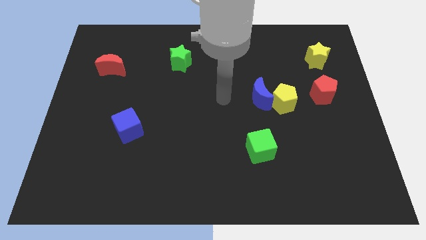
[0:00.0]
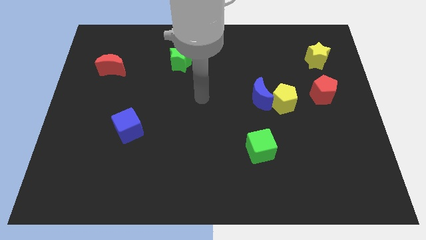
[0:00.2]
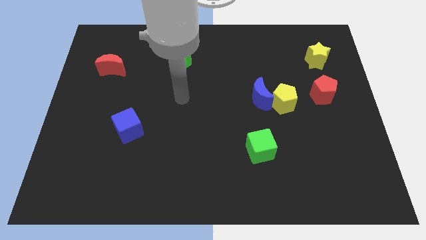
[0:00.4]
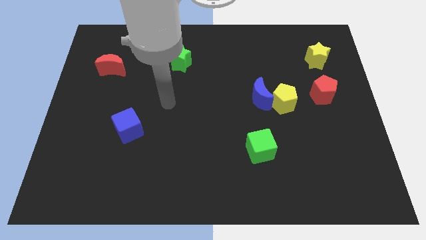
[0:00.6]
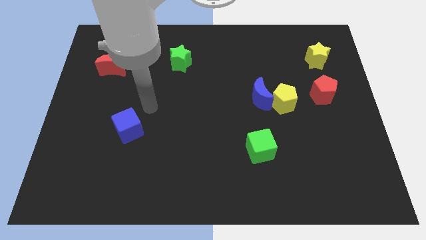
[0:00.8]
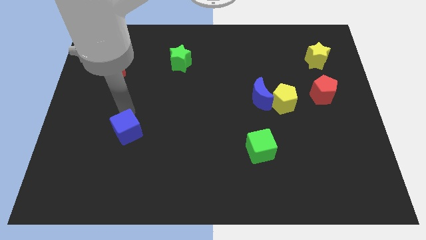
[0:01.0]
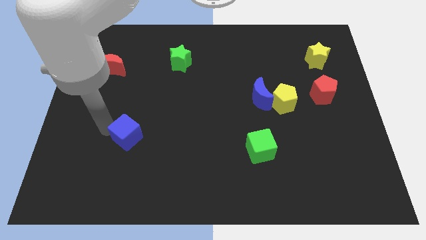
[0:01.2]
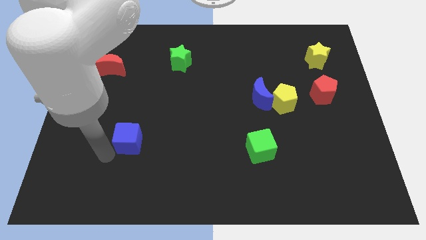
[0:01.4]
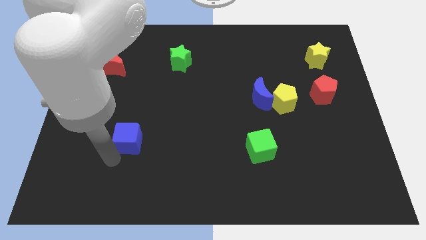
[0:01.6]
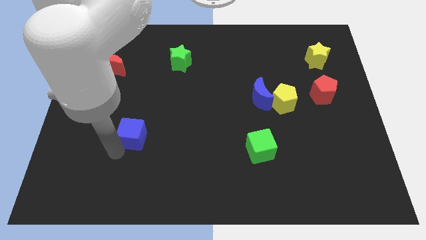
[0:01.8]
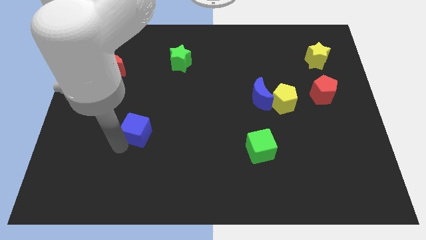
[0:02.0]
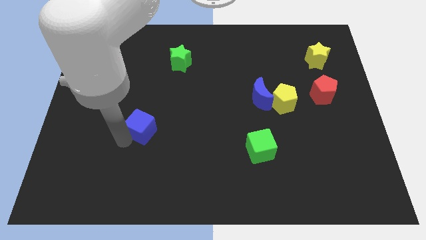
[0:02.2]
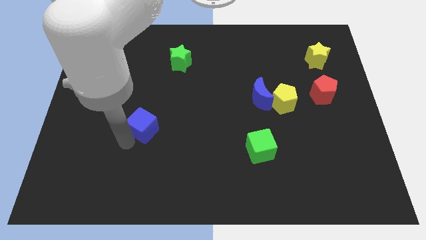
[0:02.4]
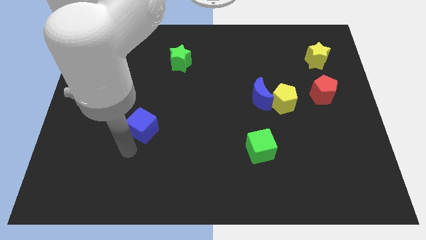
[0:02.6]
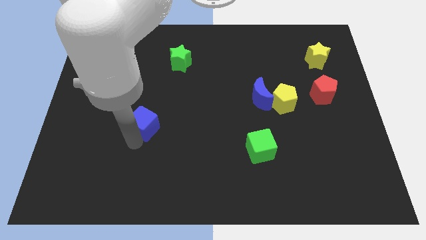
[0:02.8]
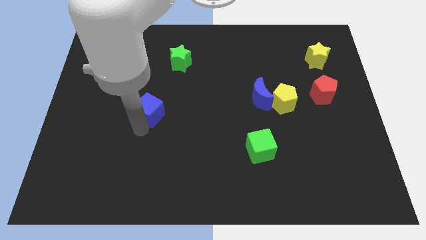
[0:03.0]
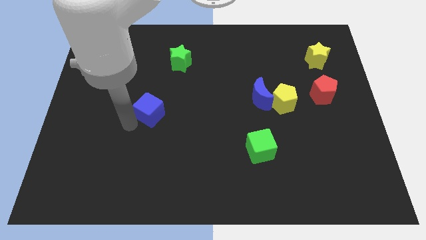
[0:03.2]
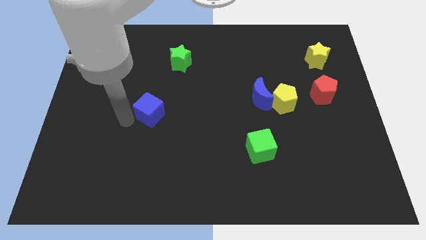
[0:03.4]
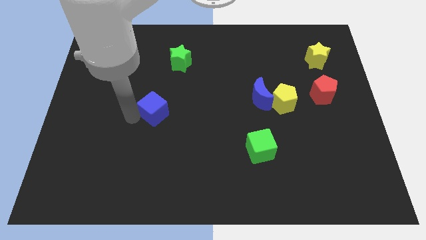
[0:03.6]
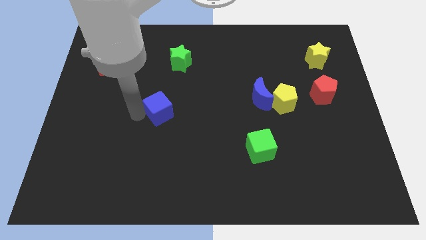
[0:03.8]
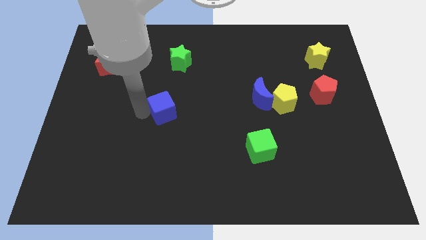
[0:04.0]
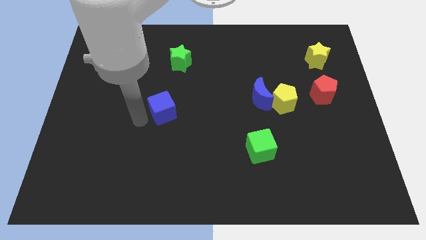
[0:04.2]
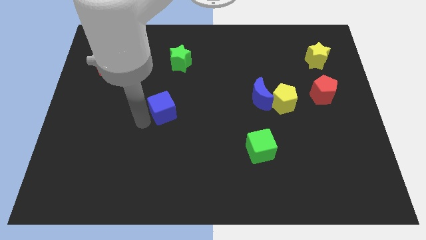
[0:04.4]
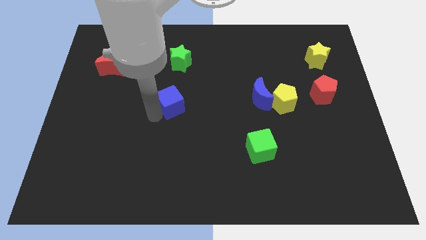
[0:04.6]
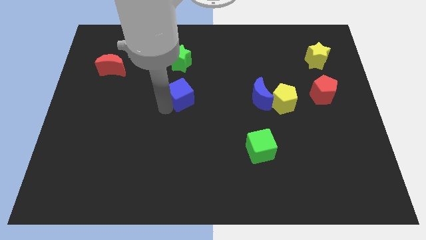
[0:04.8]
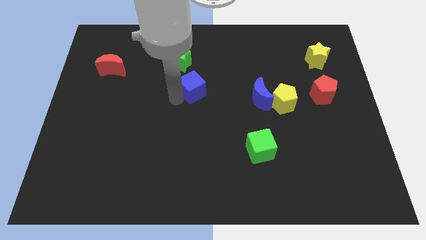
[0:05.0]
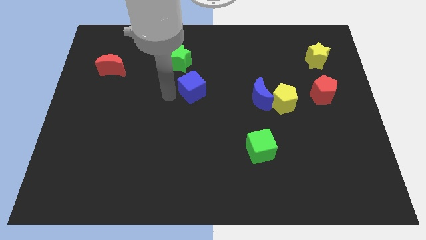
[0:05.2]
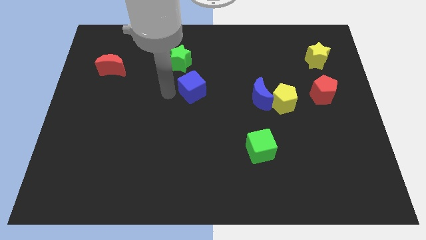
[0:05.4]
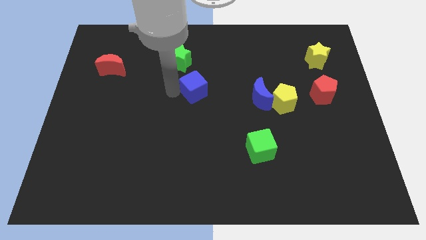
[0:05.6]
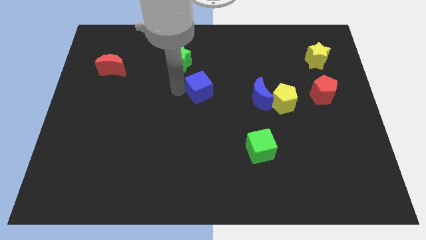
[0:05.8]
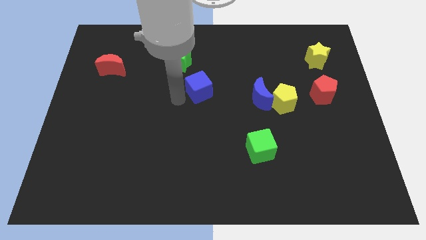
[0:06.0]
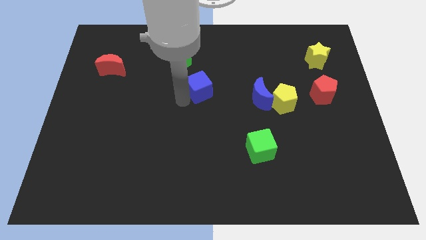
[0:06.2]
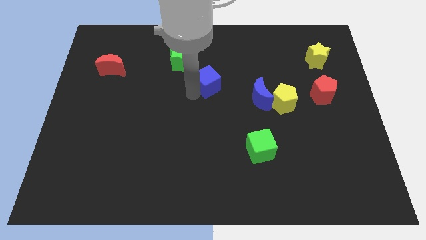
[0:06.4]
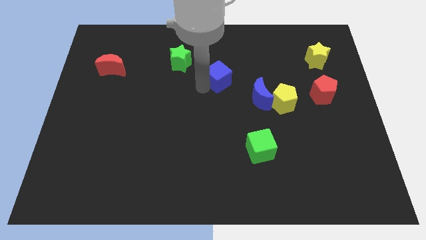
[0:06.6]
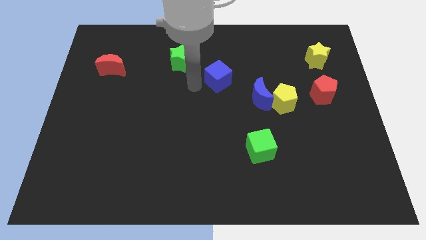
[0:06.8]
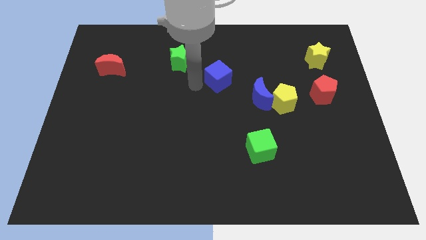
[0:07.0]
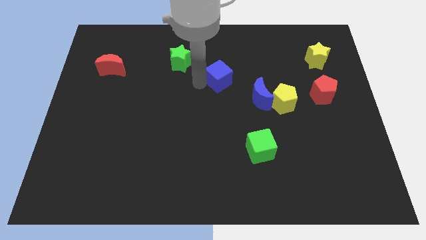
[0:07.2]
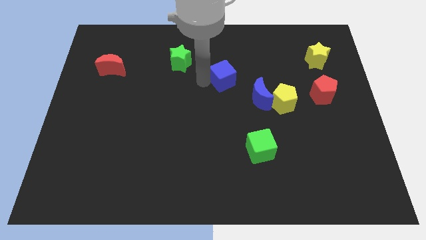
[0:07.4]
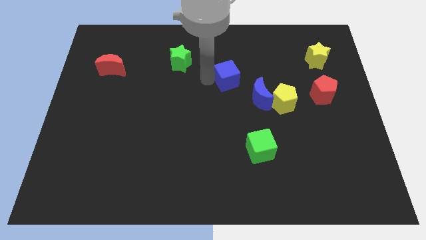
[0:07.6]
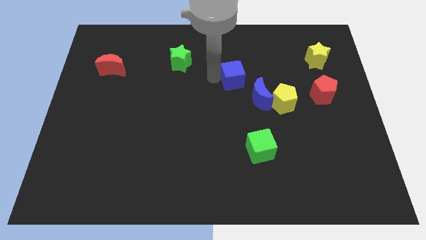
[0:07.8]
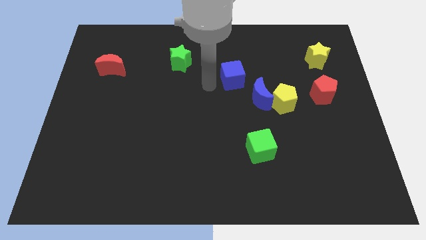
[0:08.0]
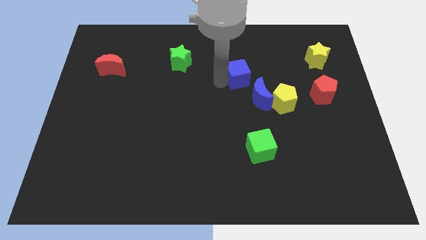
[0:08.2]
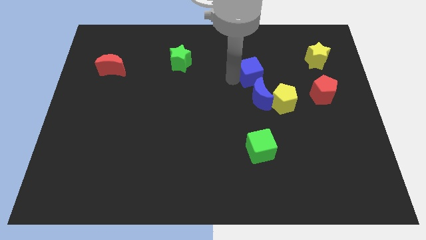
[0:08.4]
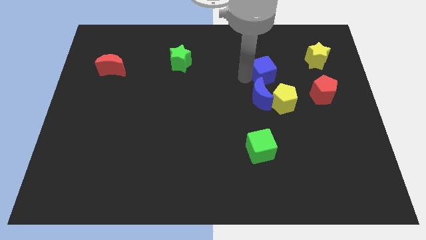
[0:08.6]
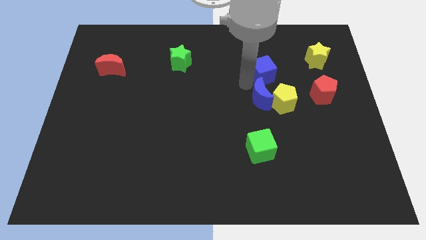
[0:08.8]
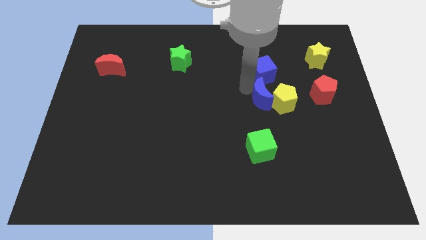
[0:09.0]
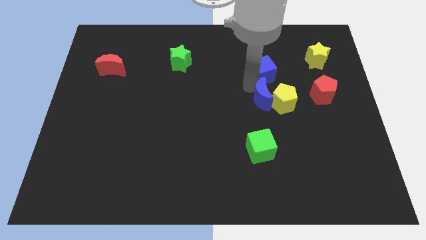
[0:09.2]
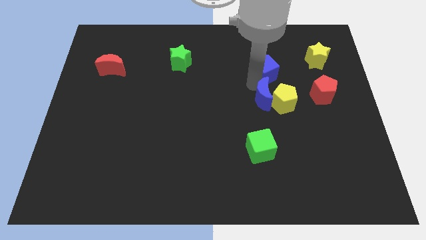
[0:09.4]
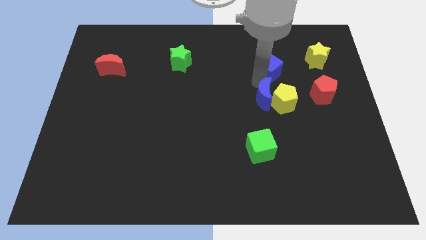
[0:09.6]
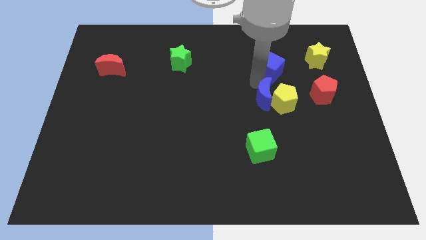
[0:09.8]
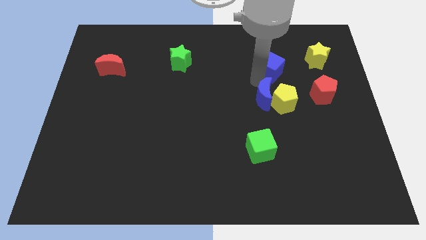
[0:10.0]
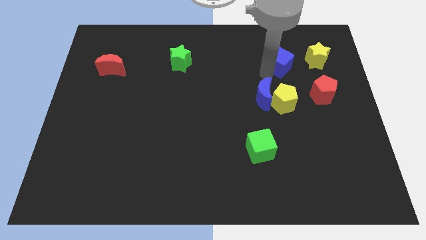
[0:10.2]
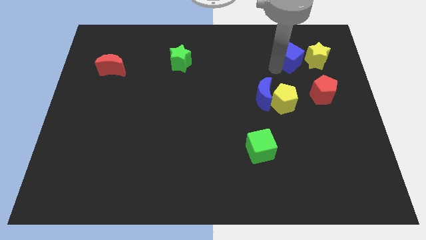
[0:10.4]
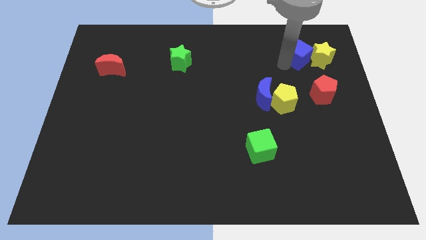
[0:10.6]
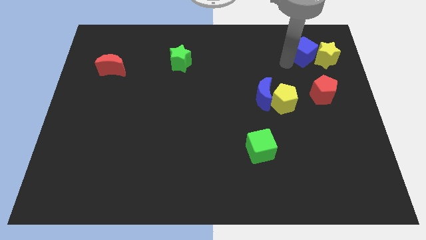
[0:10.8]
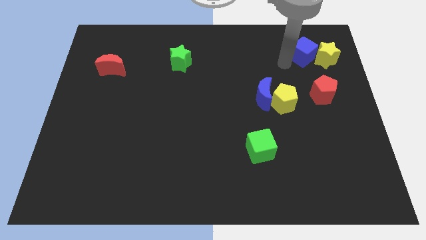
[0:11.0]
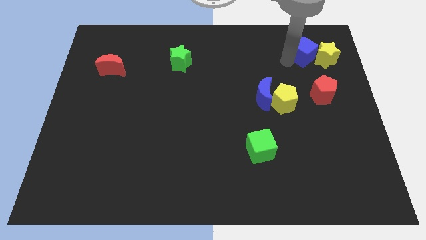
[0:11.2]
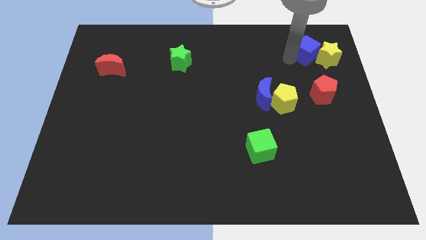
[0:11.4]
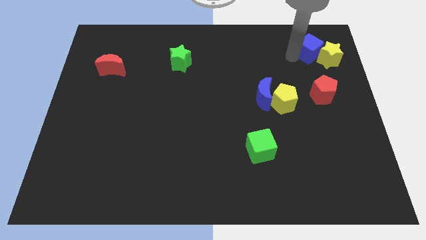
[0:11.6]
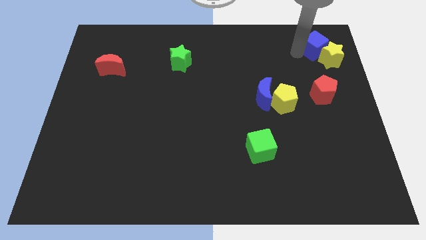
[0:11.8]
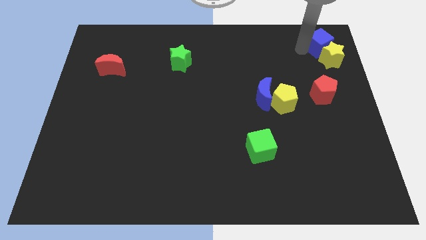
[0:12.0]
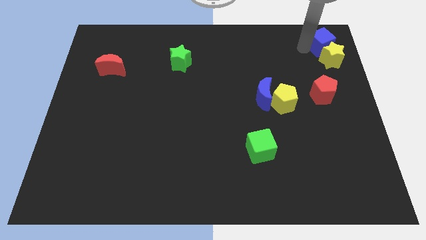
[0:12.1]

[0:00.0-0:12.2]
slide the blue cube to the top right

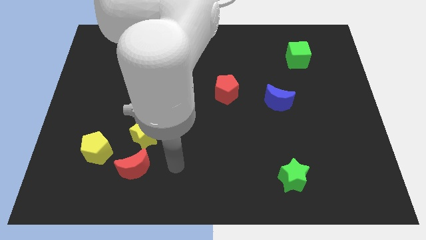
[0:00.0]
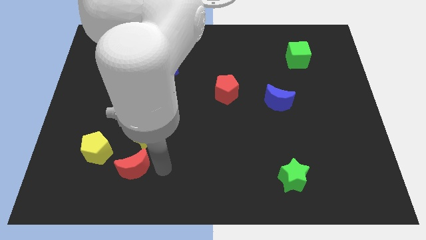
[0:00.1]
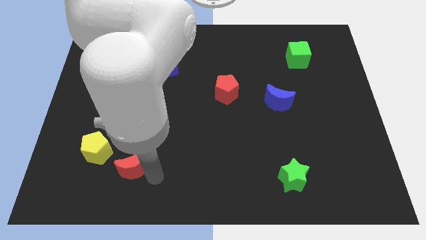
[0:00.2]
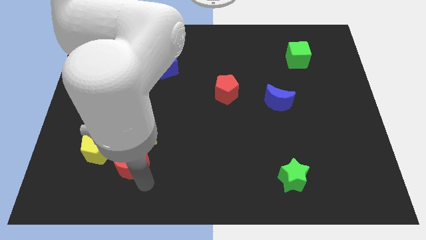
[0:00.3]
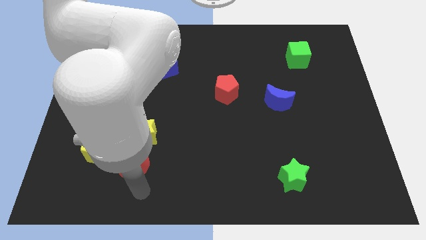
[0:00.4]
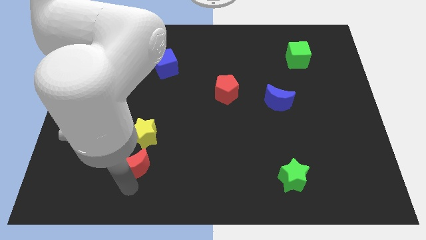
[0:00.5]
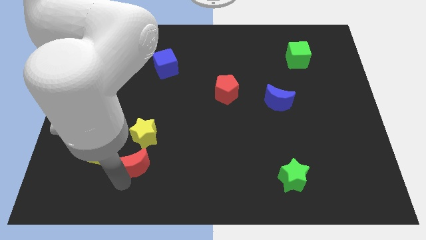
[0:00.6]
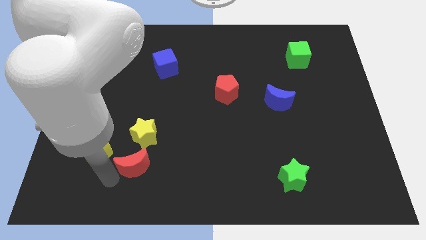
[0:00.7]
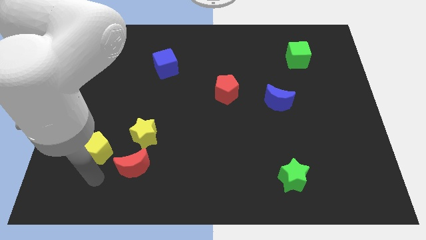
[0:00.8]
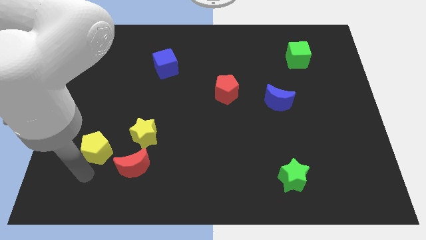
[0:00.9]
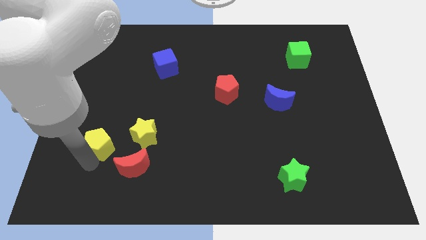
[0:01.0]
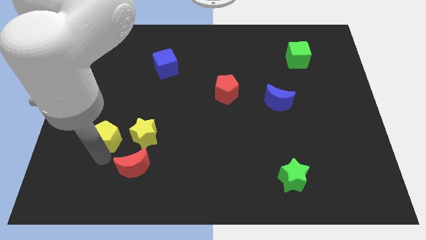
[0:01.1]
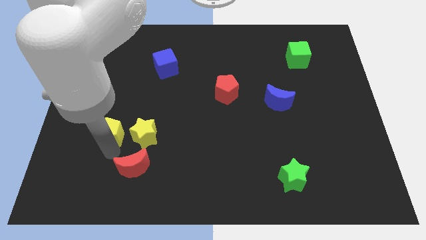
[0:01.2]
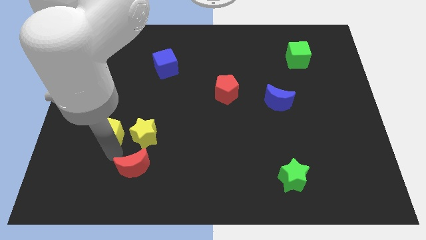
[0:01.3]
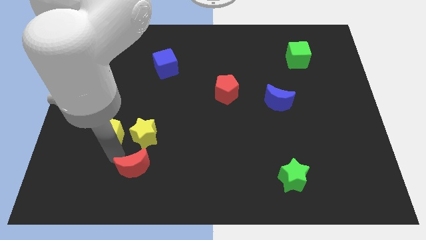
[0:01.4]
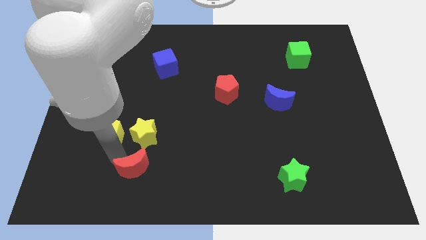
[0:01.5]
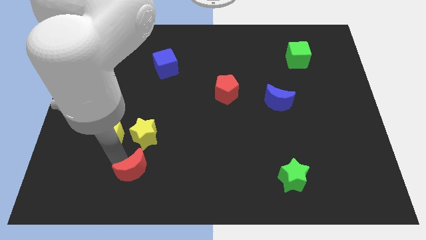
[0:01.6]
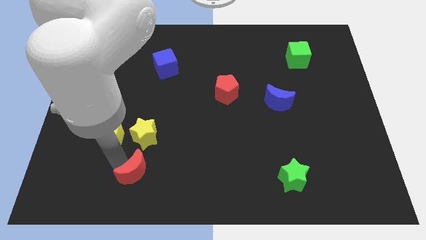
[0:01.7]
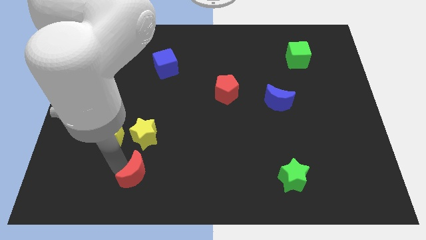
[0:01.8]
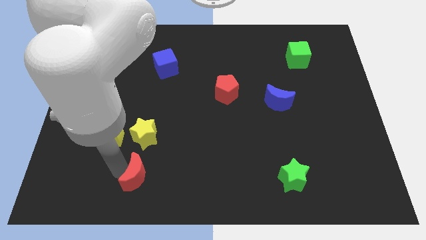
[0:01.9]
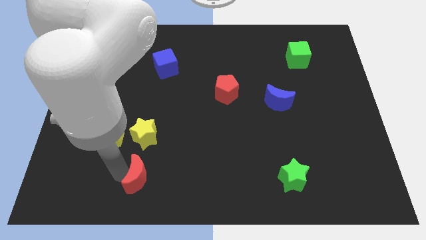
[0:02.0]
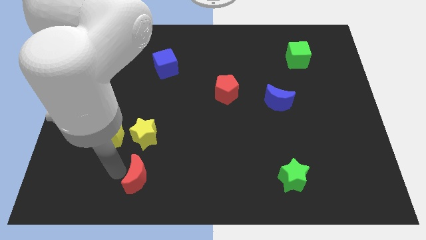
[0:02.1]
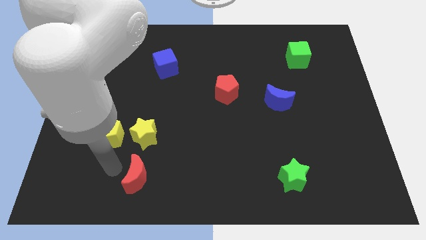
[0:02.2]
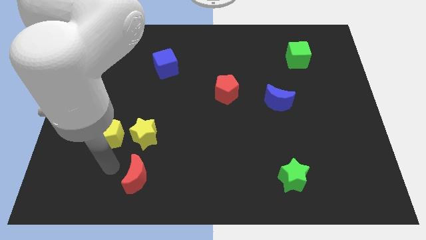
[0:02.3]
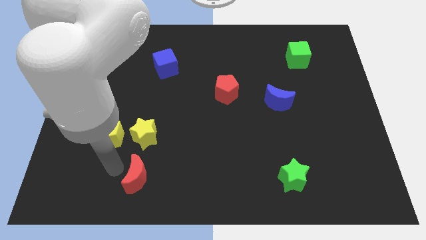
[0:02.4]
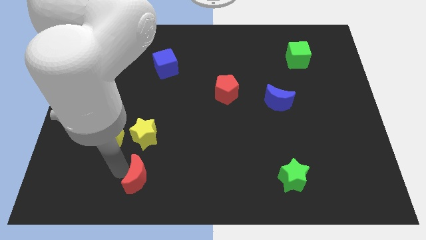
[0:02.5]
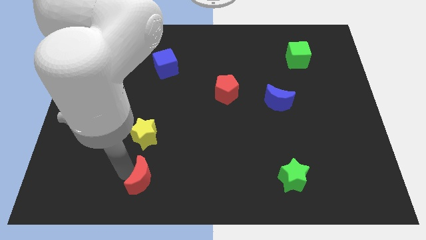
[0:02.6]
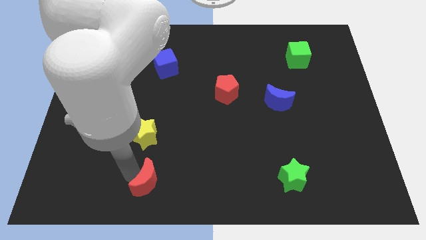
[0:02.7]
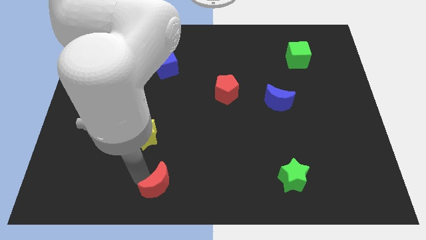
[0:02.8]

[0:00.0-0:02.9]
slide the red moon to the bottom
